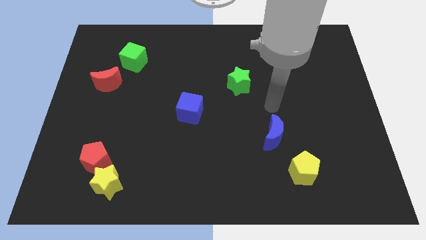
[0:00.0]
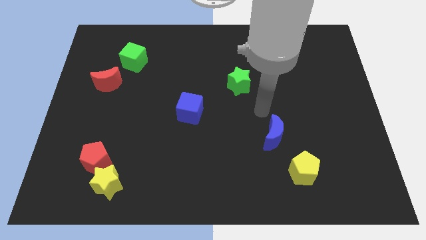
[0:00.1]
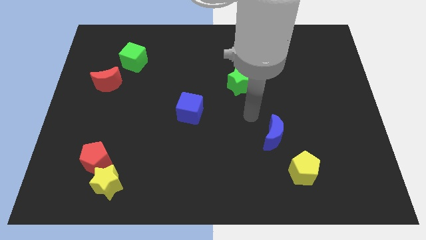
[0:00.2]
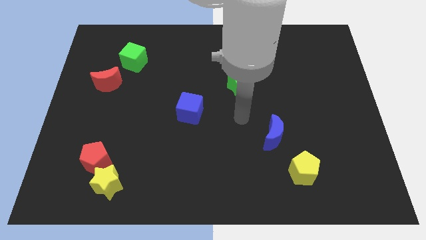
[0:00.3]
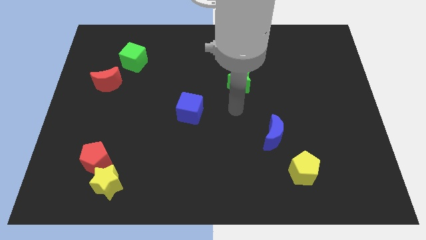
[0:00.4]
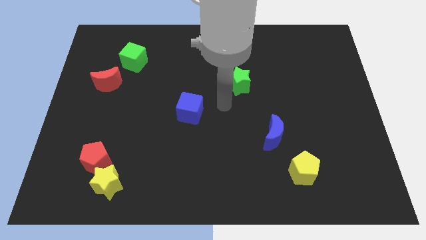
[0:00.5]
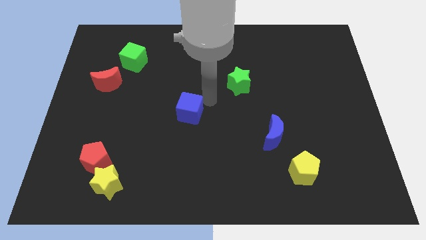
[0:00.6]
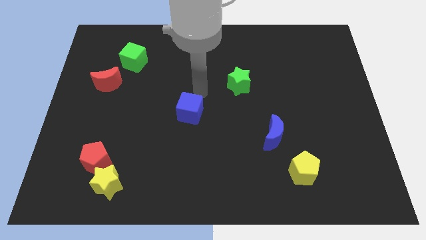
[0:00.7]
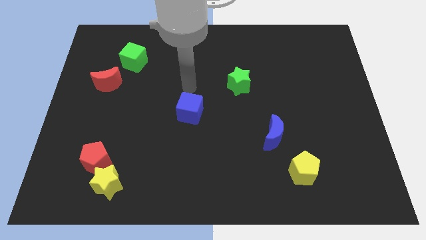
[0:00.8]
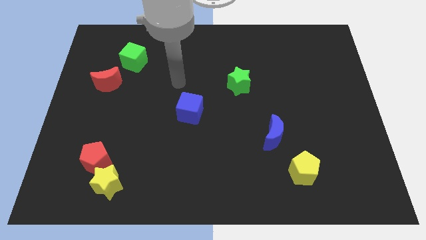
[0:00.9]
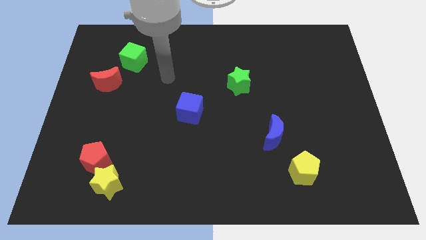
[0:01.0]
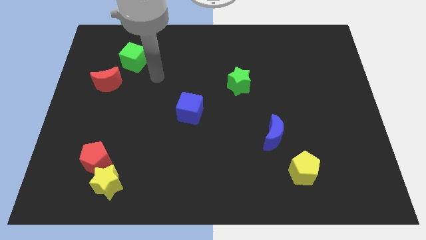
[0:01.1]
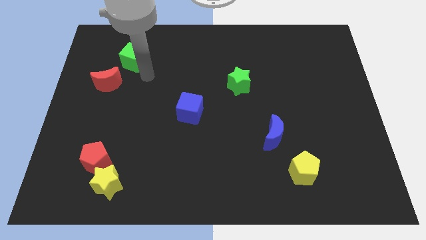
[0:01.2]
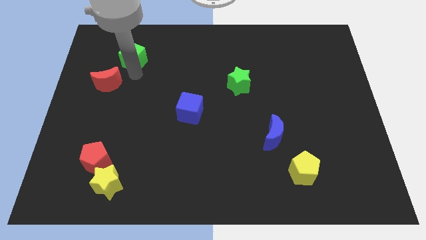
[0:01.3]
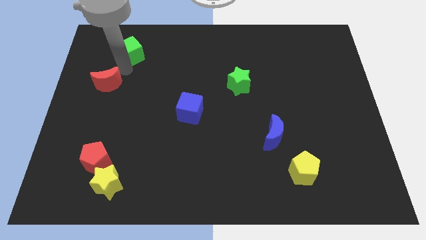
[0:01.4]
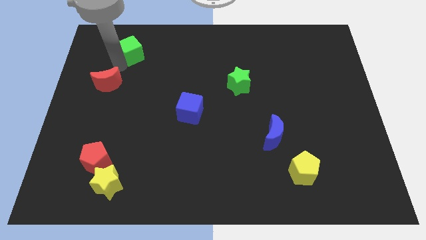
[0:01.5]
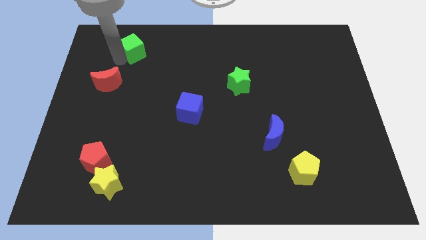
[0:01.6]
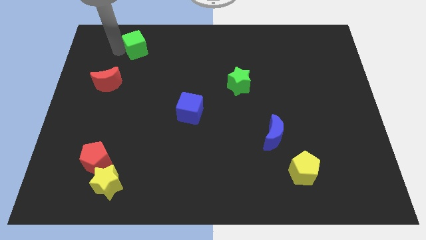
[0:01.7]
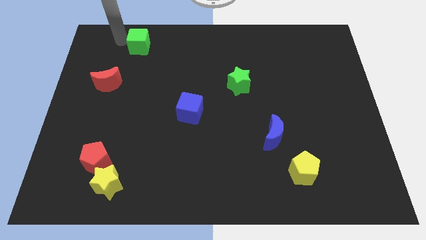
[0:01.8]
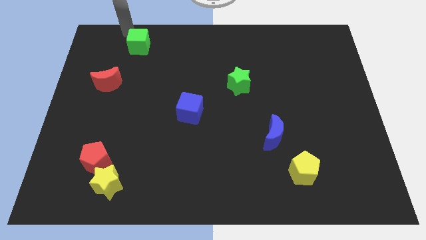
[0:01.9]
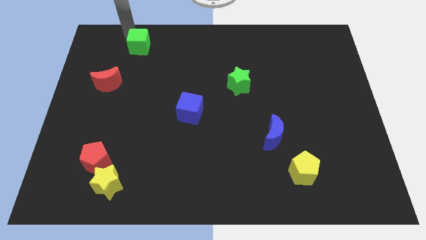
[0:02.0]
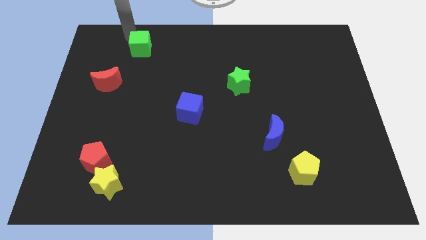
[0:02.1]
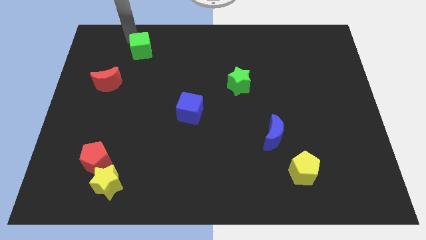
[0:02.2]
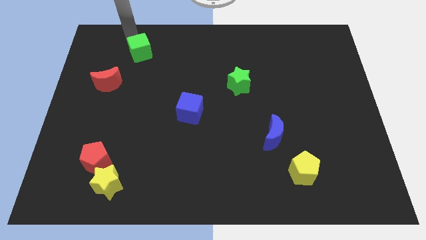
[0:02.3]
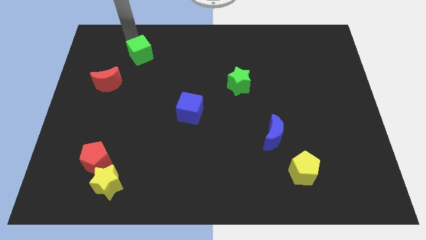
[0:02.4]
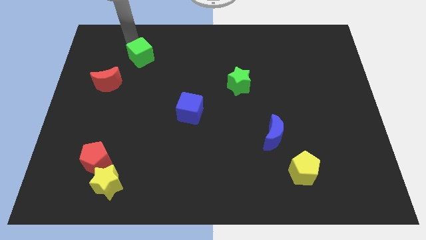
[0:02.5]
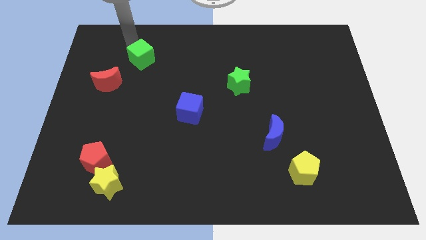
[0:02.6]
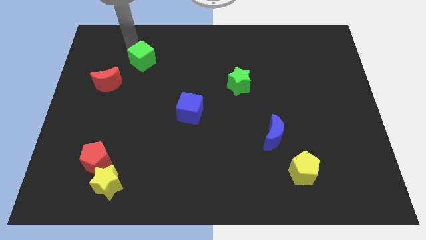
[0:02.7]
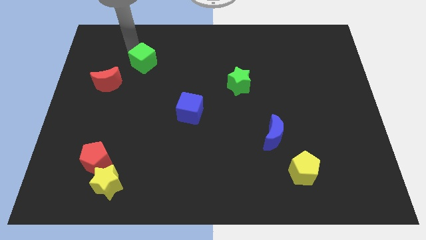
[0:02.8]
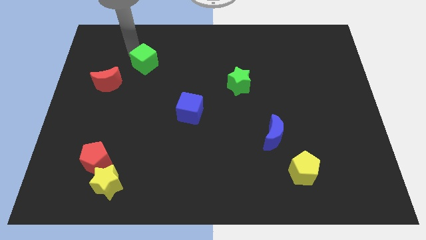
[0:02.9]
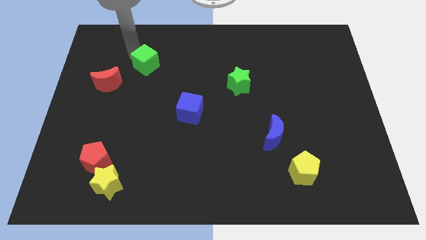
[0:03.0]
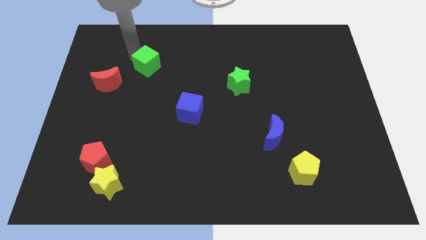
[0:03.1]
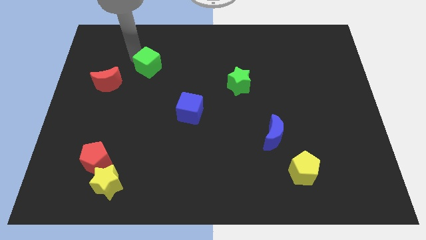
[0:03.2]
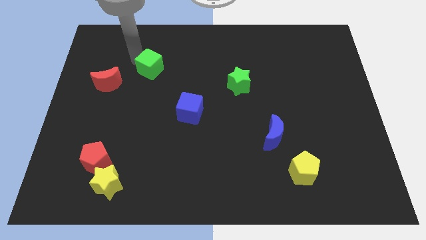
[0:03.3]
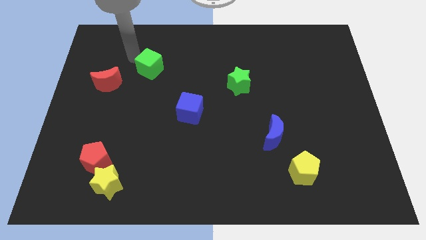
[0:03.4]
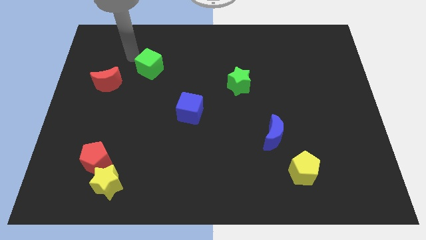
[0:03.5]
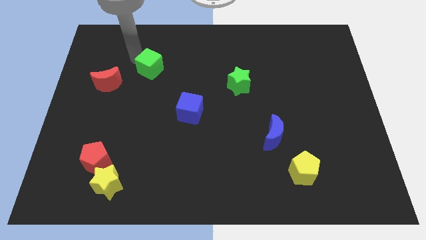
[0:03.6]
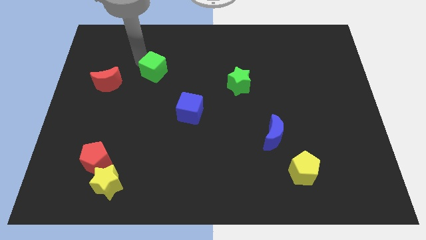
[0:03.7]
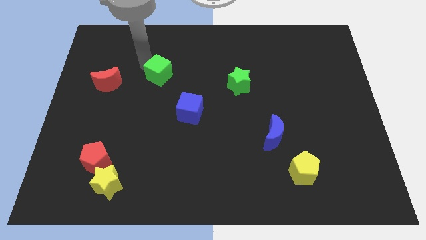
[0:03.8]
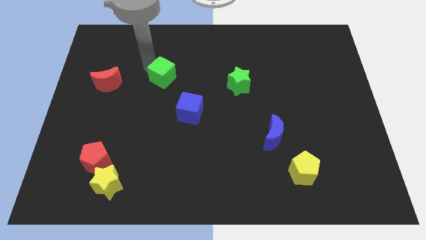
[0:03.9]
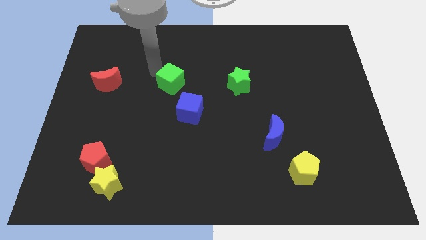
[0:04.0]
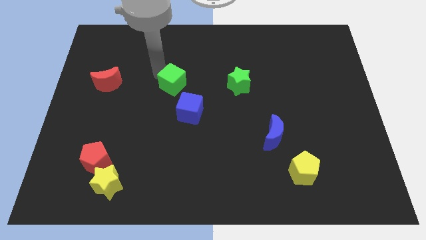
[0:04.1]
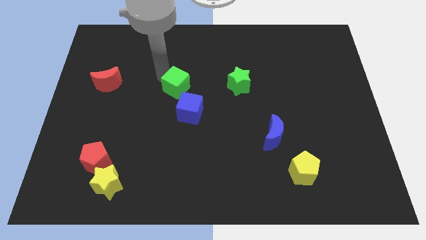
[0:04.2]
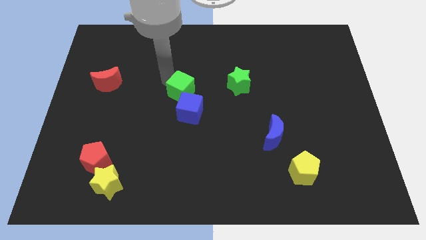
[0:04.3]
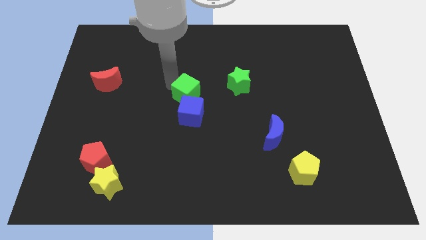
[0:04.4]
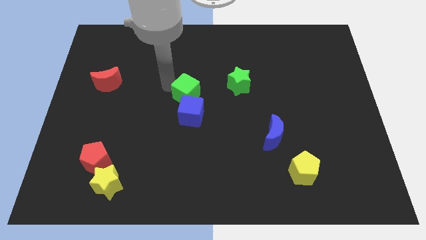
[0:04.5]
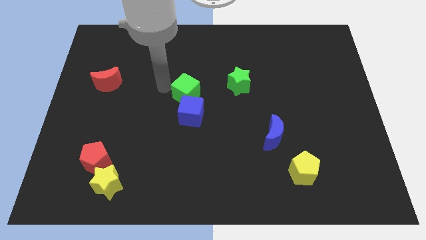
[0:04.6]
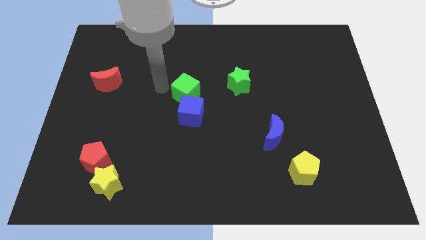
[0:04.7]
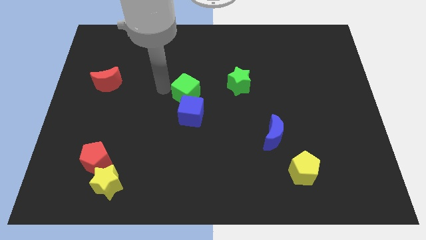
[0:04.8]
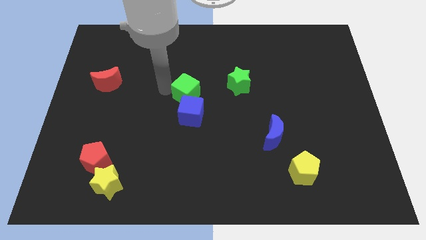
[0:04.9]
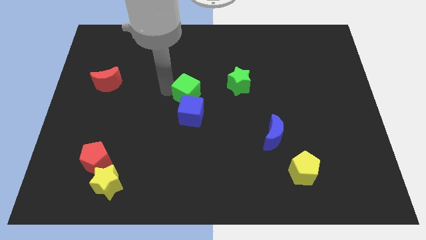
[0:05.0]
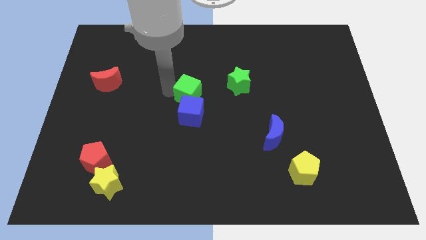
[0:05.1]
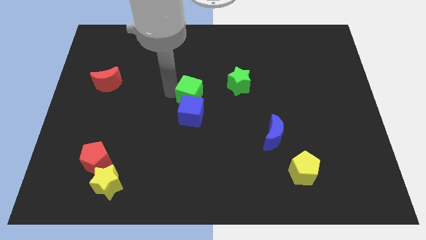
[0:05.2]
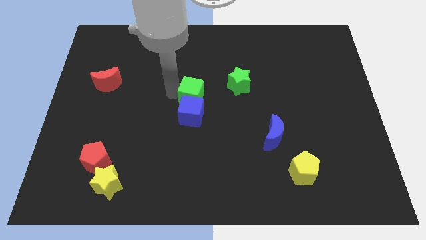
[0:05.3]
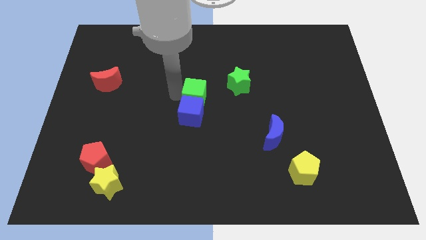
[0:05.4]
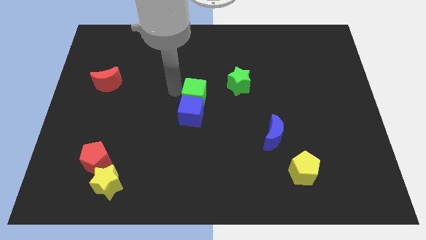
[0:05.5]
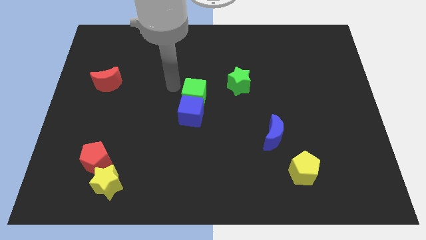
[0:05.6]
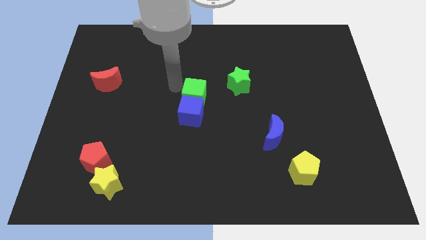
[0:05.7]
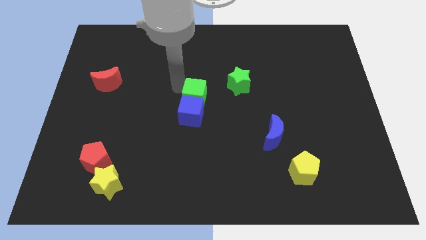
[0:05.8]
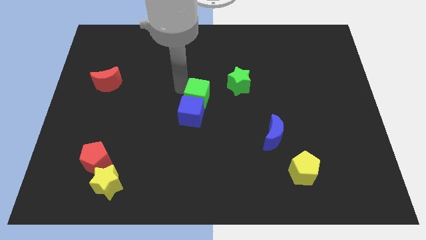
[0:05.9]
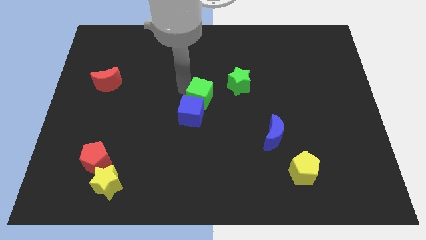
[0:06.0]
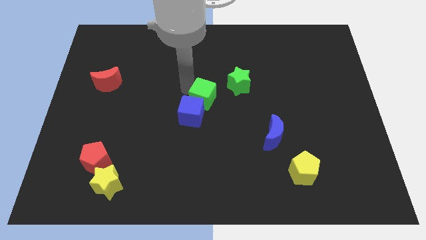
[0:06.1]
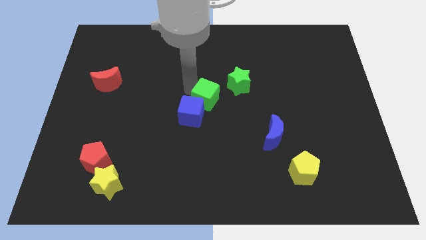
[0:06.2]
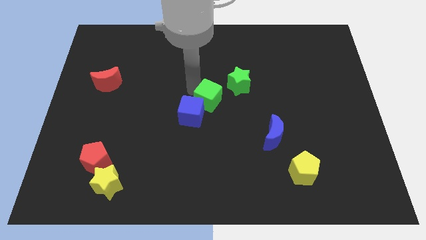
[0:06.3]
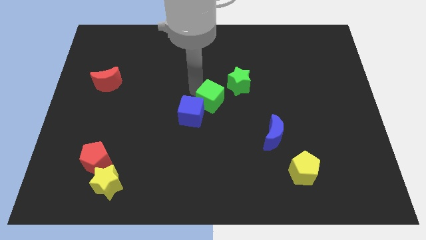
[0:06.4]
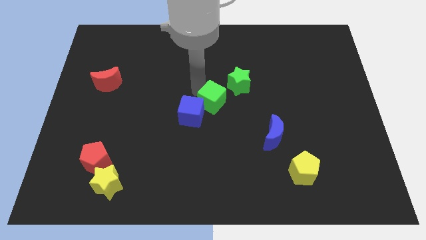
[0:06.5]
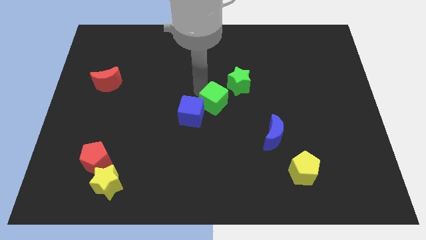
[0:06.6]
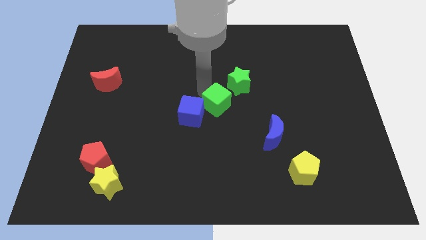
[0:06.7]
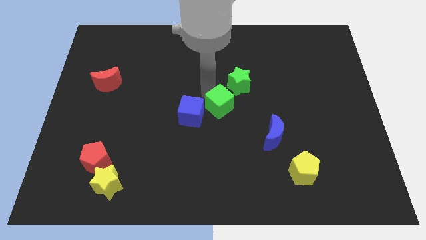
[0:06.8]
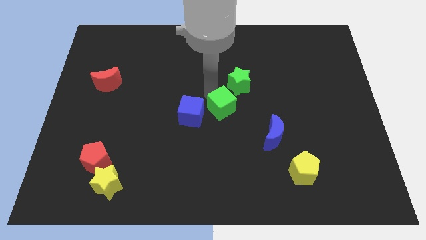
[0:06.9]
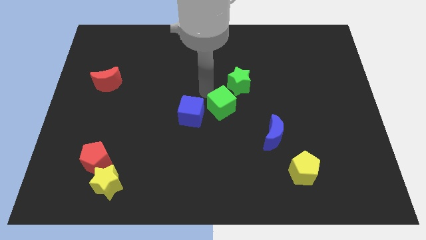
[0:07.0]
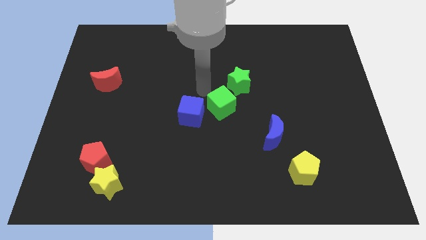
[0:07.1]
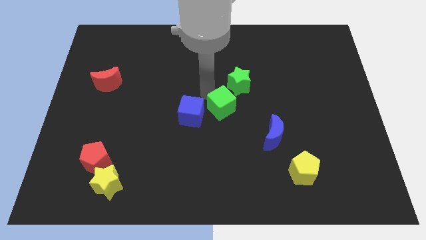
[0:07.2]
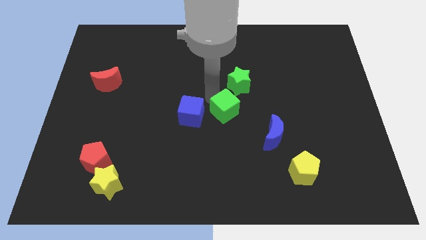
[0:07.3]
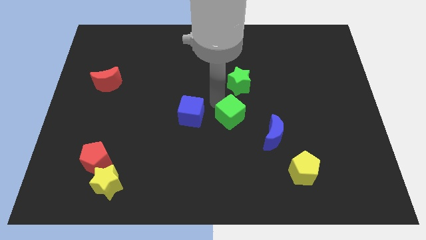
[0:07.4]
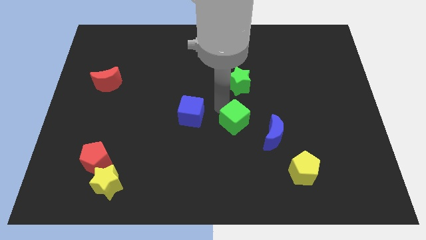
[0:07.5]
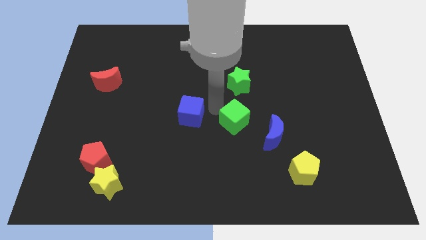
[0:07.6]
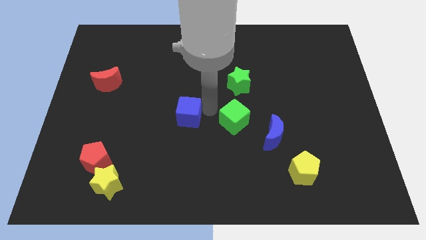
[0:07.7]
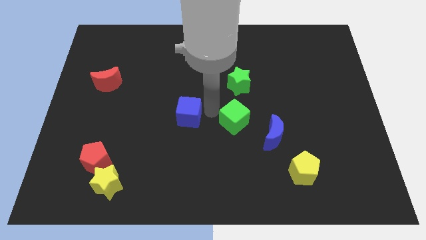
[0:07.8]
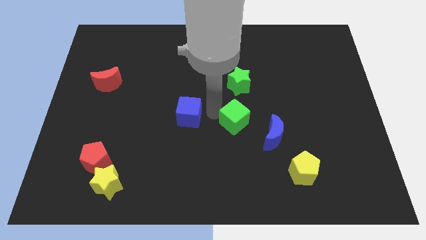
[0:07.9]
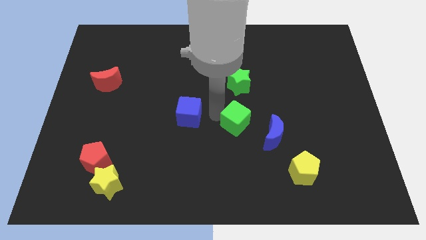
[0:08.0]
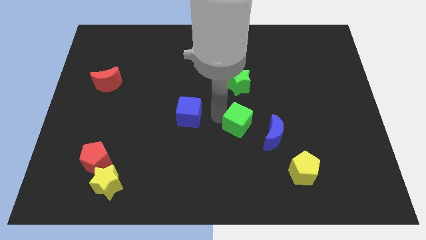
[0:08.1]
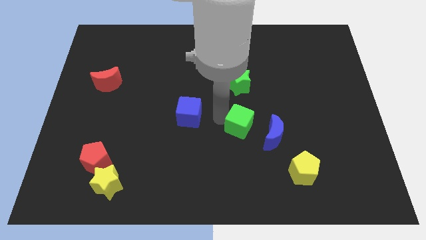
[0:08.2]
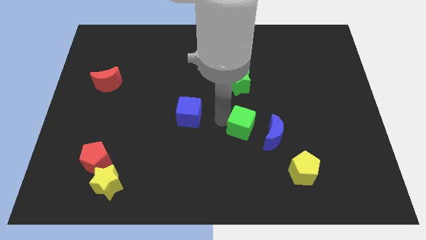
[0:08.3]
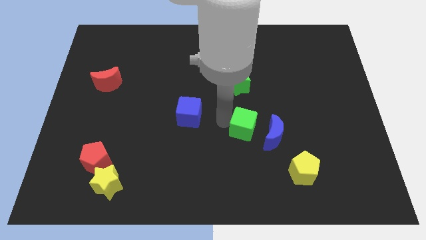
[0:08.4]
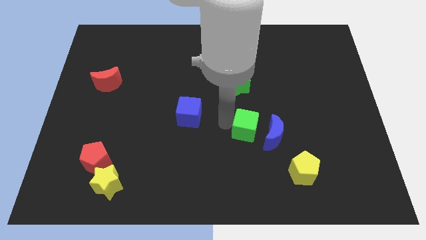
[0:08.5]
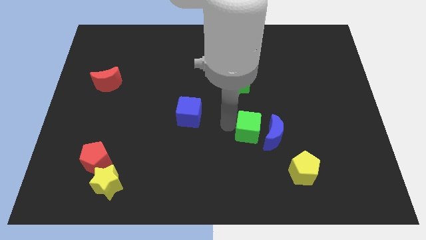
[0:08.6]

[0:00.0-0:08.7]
move the green cube next to the blue moon

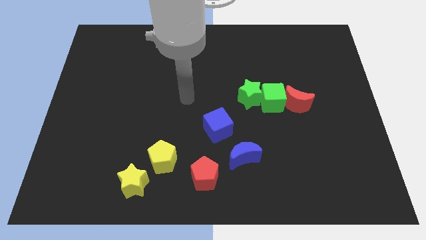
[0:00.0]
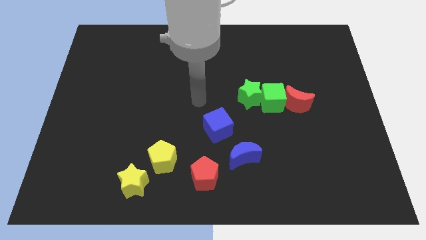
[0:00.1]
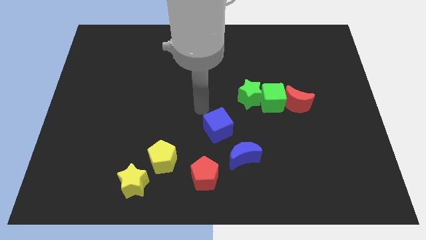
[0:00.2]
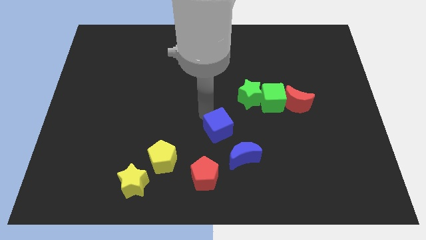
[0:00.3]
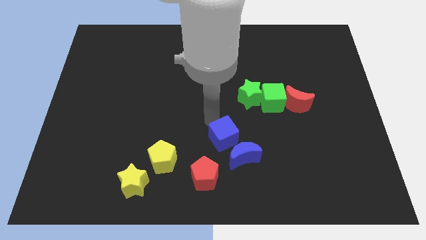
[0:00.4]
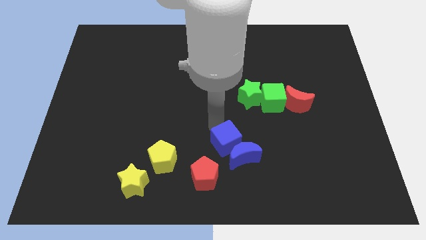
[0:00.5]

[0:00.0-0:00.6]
push the blue cube towards the blue moon
